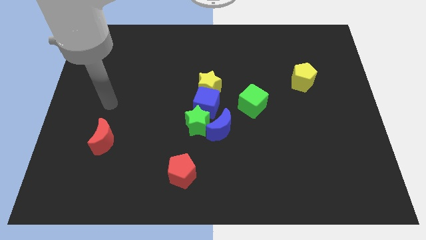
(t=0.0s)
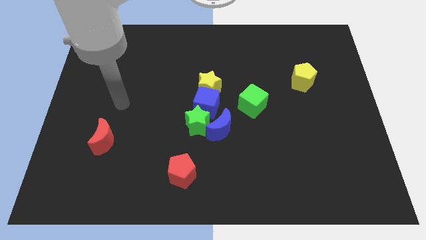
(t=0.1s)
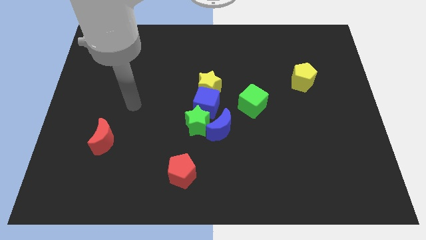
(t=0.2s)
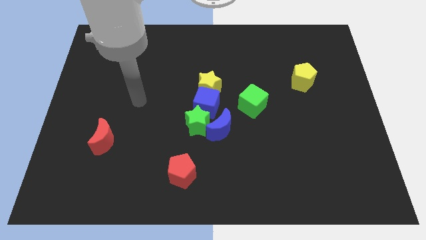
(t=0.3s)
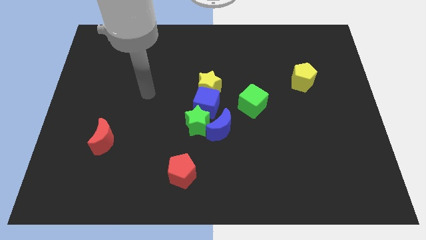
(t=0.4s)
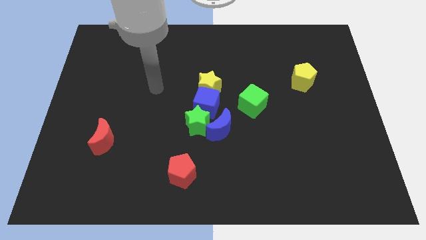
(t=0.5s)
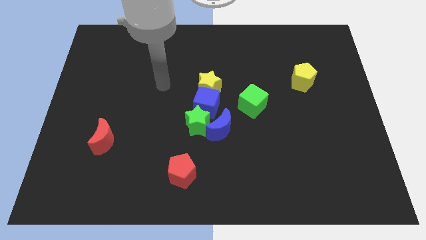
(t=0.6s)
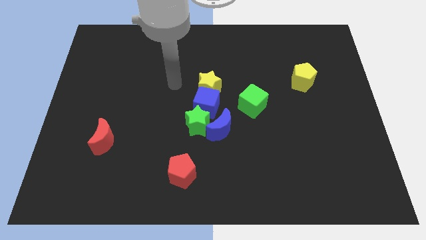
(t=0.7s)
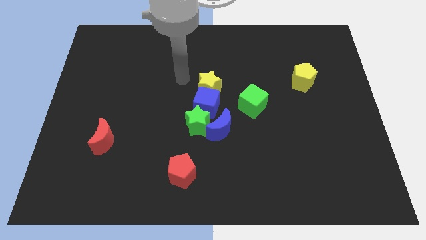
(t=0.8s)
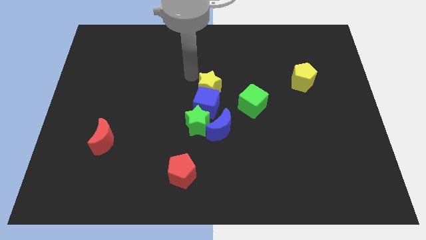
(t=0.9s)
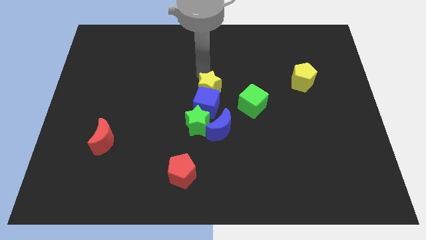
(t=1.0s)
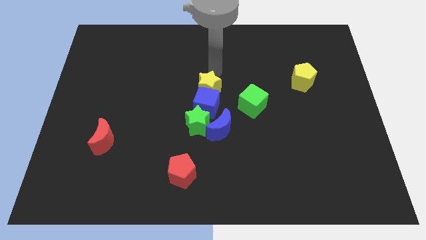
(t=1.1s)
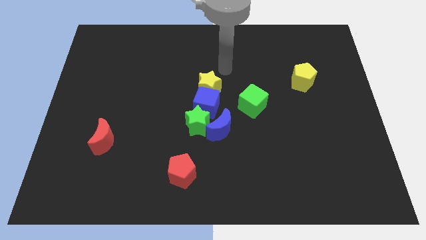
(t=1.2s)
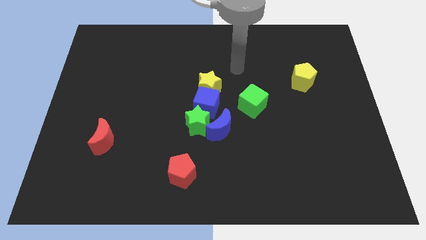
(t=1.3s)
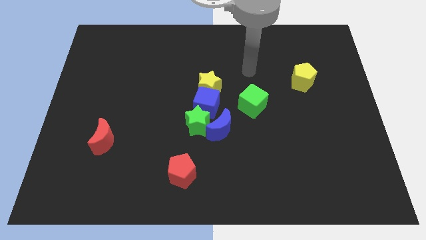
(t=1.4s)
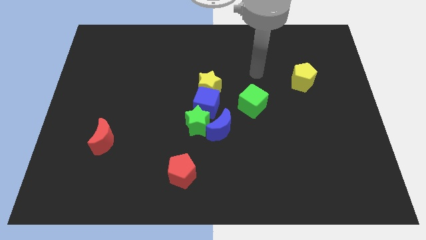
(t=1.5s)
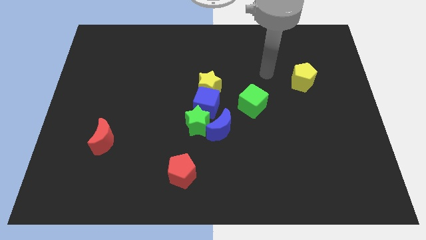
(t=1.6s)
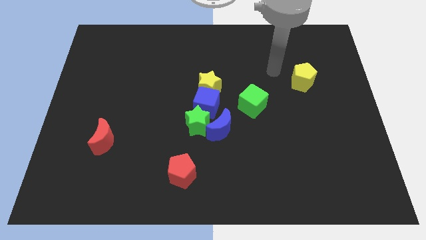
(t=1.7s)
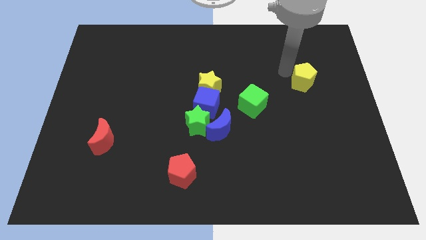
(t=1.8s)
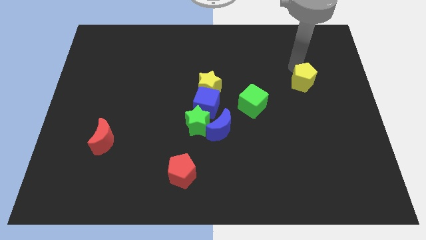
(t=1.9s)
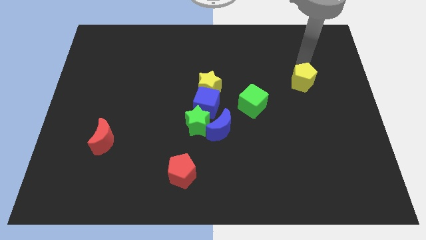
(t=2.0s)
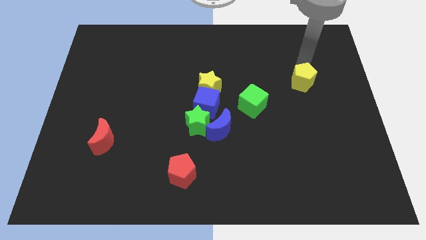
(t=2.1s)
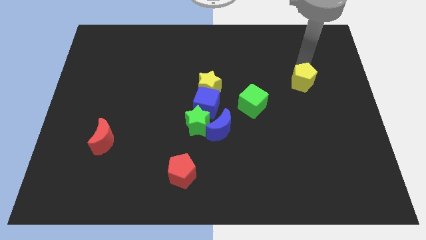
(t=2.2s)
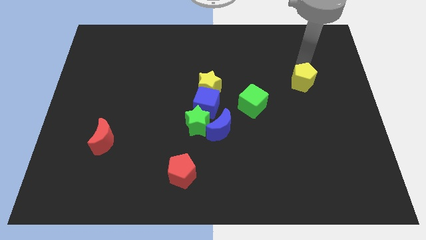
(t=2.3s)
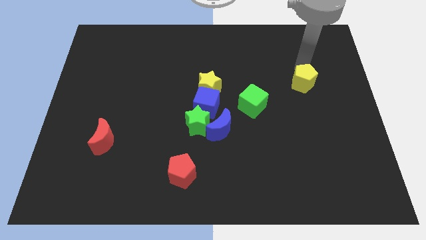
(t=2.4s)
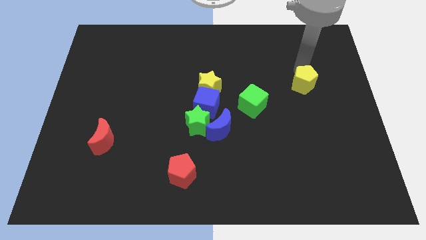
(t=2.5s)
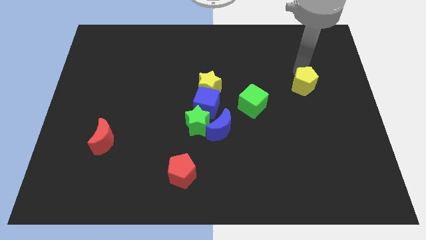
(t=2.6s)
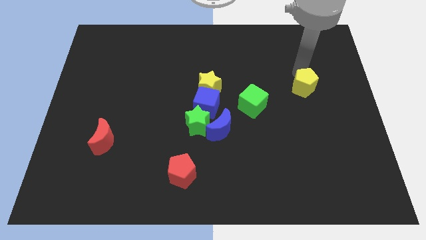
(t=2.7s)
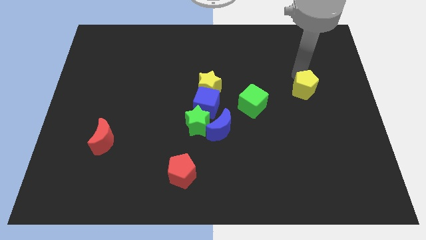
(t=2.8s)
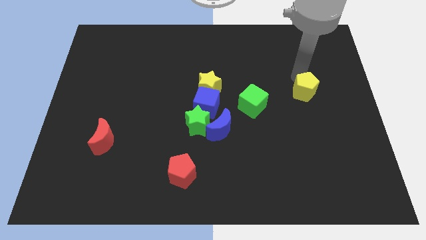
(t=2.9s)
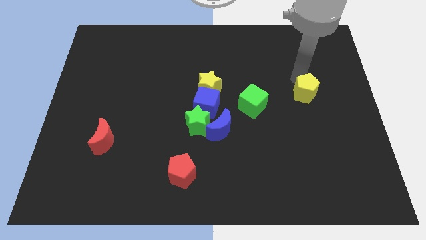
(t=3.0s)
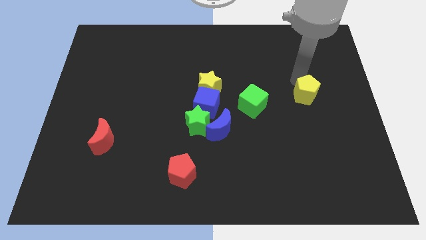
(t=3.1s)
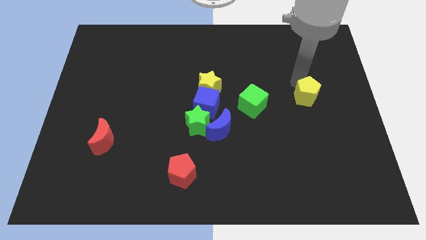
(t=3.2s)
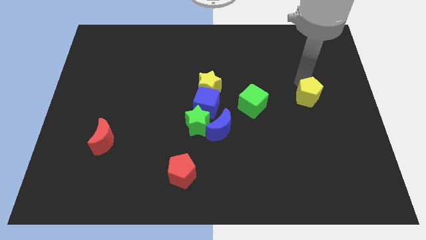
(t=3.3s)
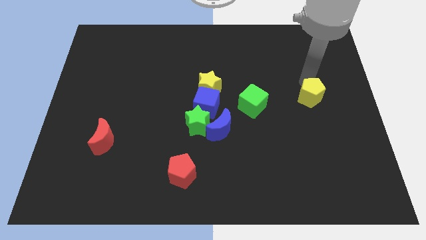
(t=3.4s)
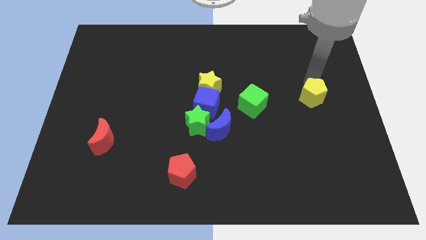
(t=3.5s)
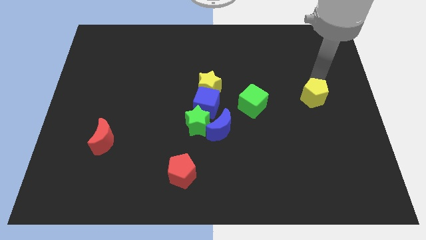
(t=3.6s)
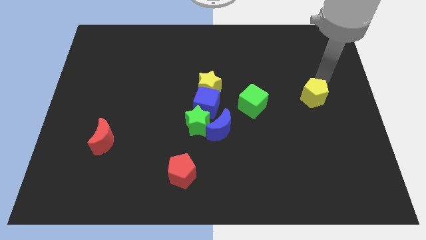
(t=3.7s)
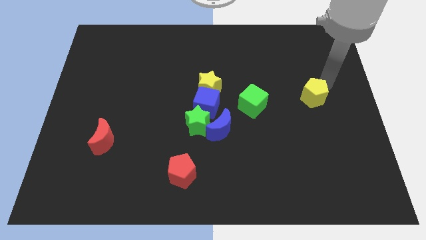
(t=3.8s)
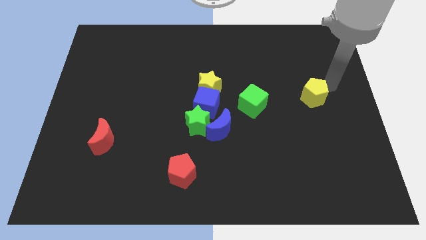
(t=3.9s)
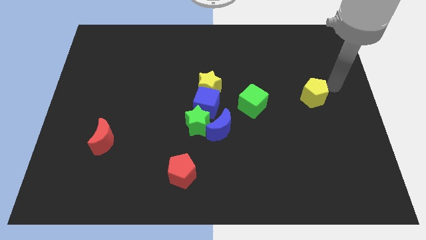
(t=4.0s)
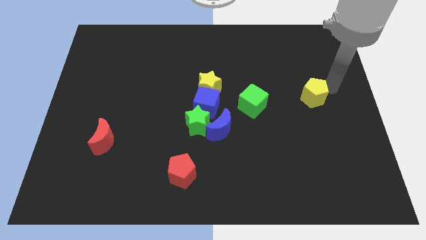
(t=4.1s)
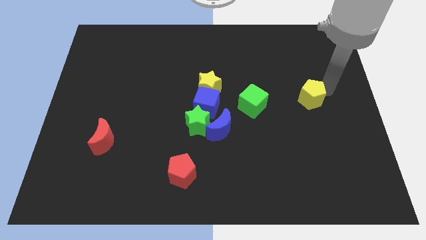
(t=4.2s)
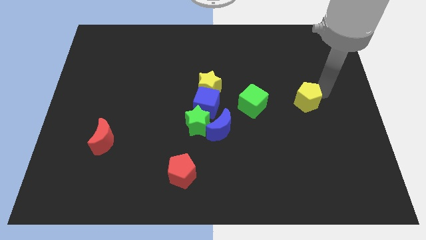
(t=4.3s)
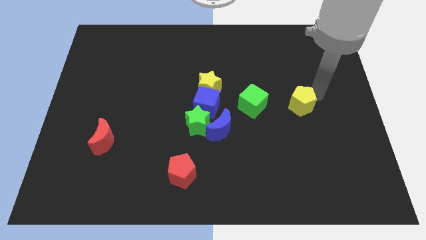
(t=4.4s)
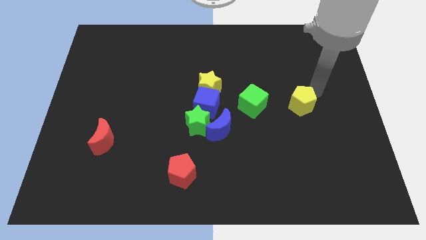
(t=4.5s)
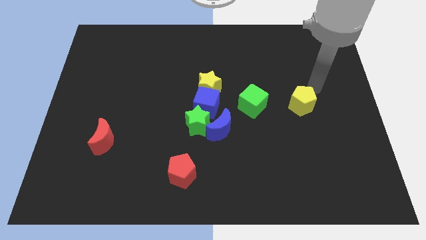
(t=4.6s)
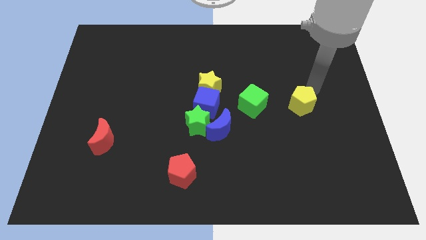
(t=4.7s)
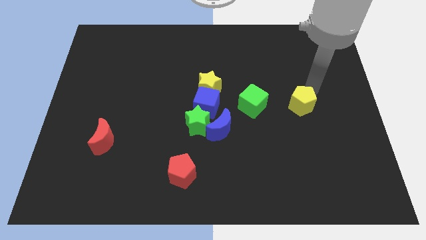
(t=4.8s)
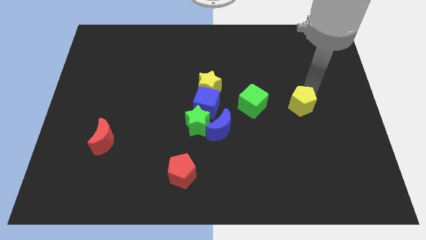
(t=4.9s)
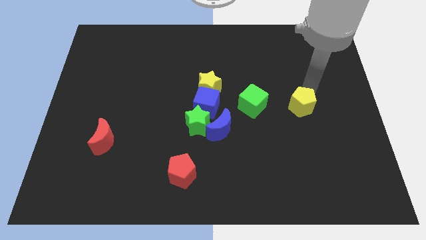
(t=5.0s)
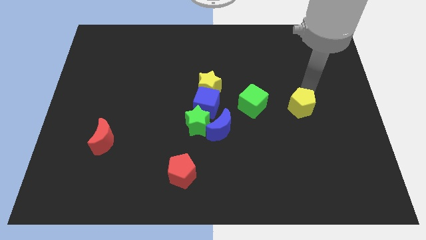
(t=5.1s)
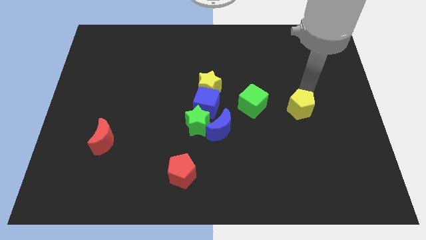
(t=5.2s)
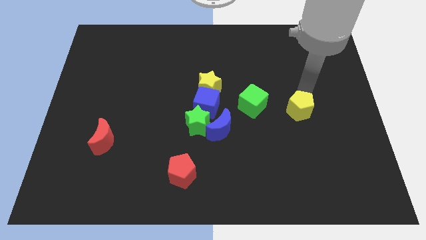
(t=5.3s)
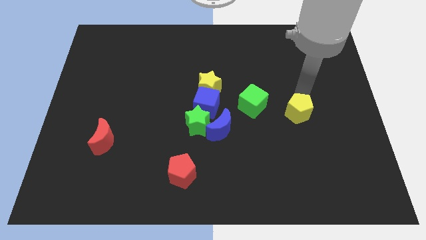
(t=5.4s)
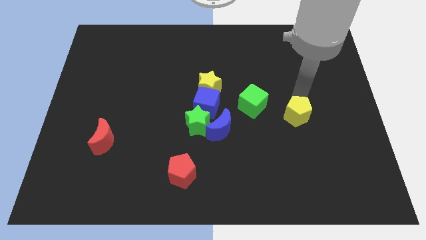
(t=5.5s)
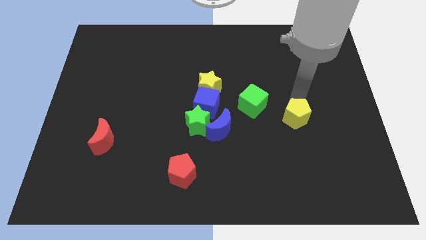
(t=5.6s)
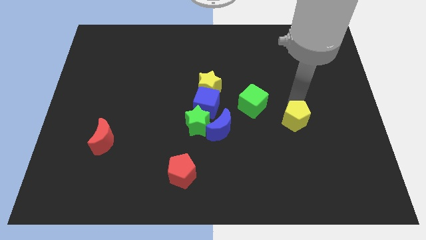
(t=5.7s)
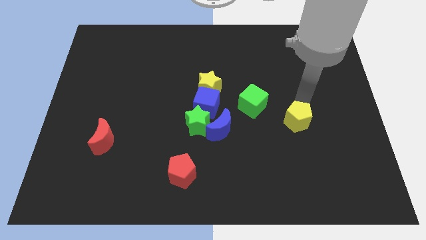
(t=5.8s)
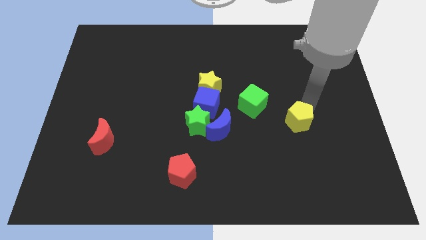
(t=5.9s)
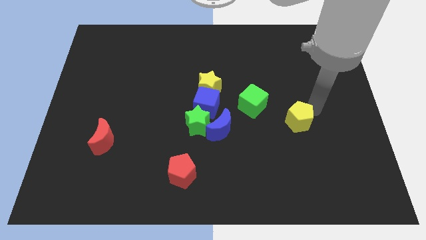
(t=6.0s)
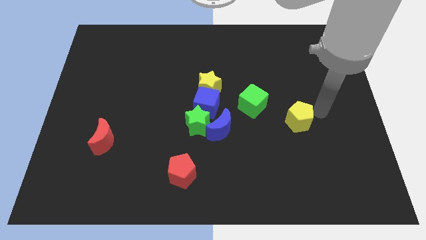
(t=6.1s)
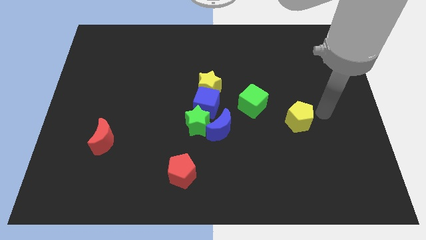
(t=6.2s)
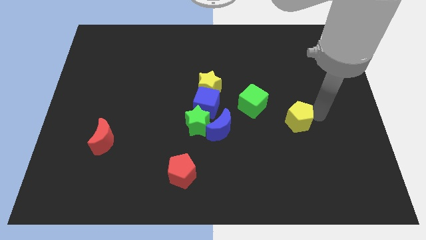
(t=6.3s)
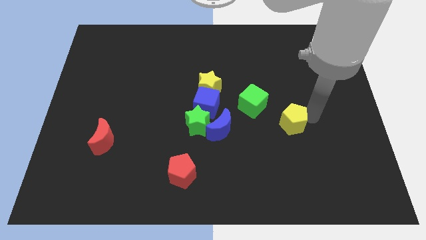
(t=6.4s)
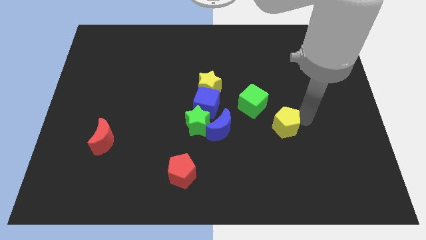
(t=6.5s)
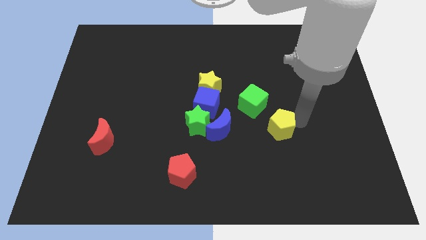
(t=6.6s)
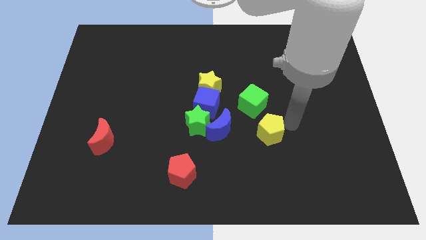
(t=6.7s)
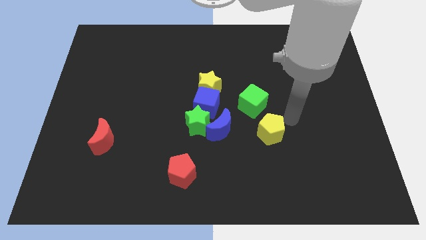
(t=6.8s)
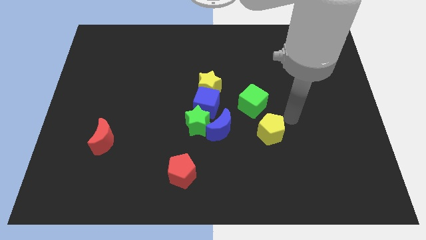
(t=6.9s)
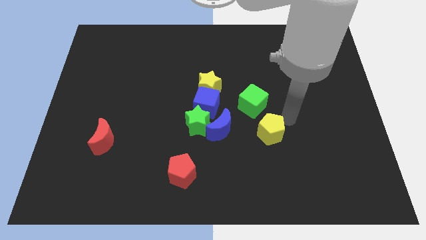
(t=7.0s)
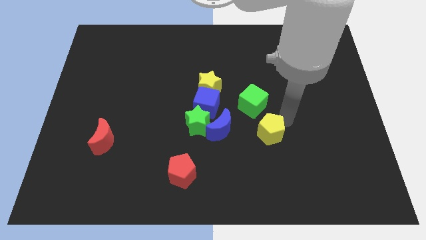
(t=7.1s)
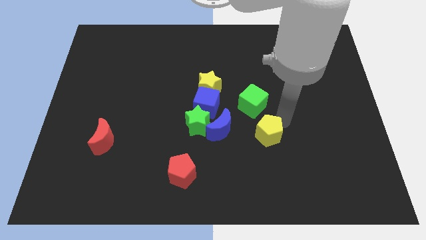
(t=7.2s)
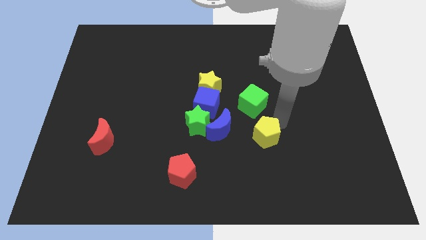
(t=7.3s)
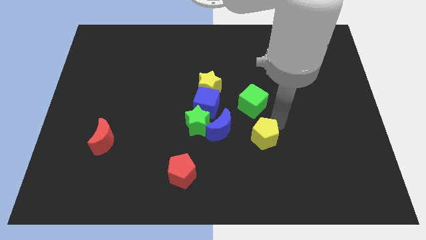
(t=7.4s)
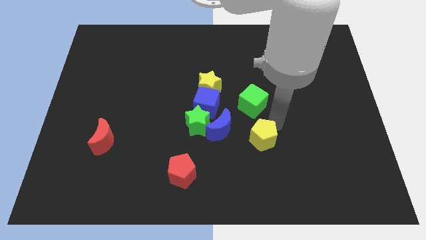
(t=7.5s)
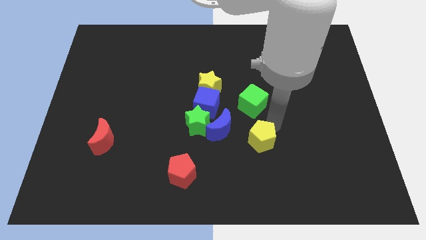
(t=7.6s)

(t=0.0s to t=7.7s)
slide the yellow pentagon diagonally downwards and to the left
